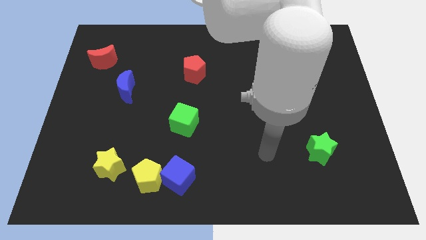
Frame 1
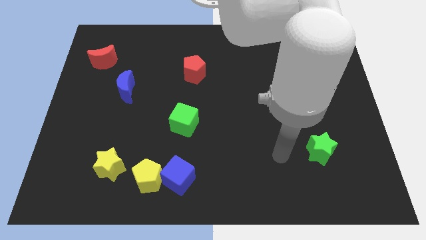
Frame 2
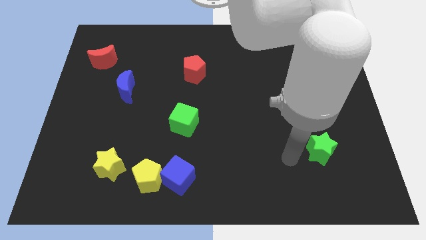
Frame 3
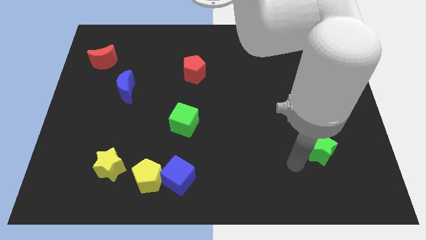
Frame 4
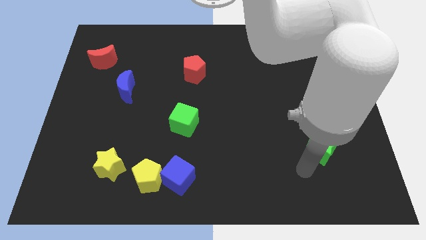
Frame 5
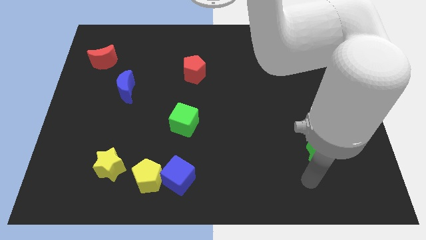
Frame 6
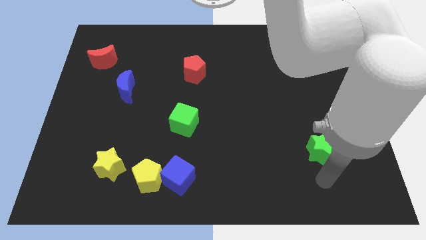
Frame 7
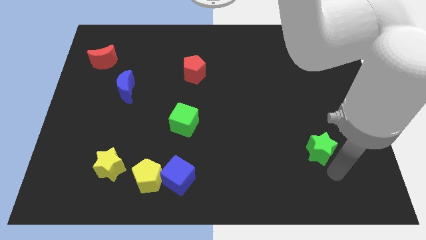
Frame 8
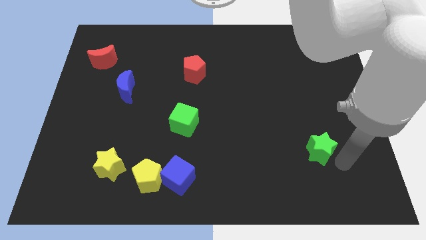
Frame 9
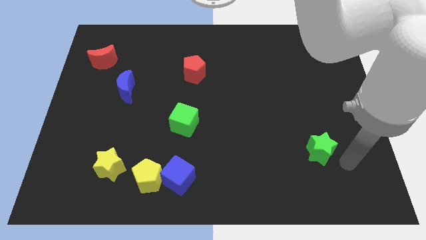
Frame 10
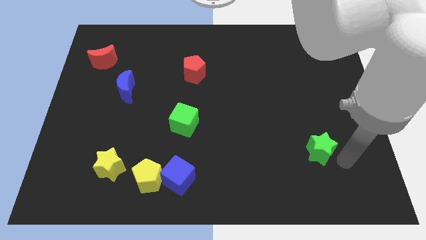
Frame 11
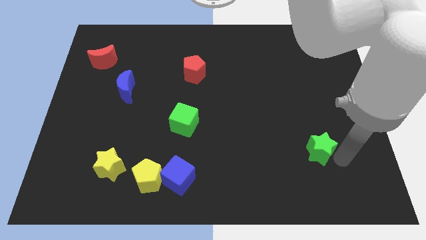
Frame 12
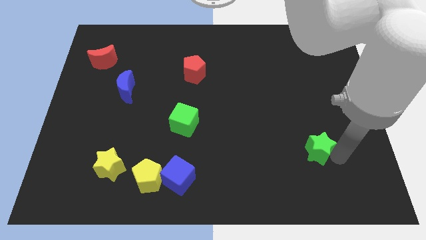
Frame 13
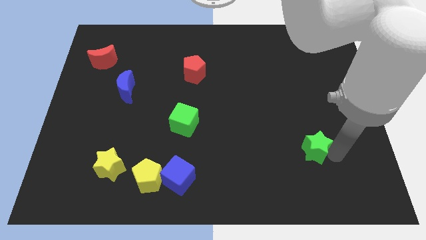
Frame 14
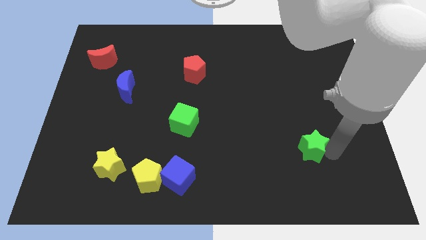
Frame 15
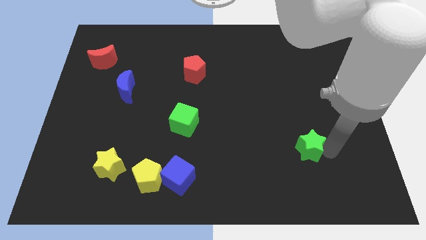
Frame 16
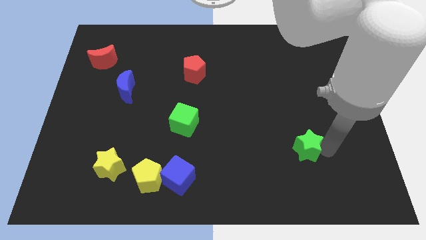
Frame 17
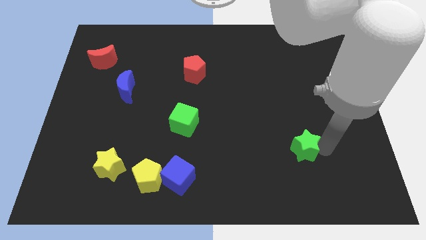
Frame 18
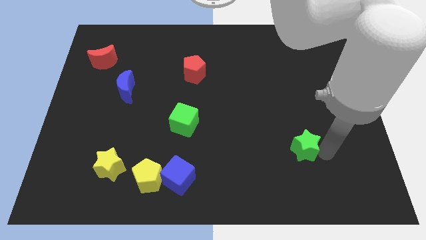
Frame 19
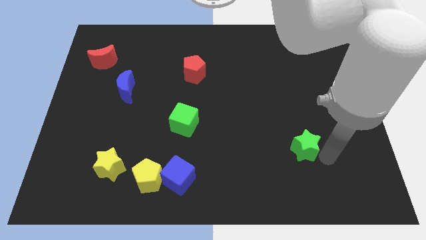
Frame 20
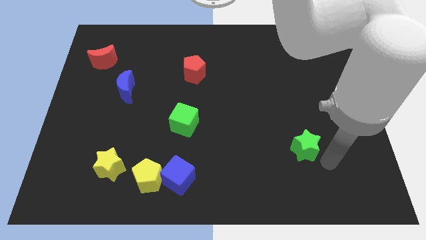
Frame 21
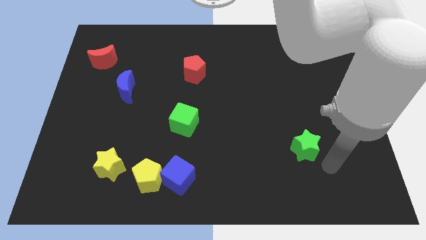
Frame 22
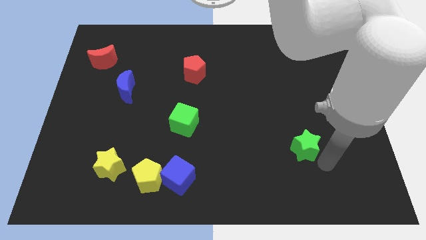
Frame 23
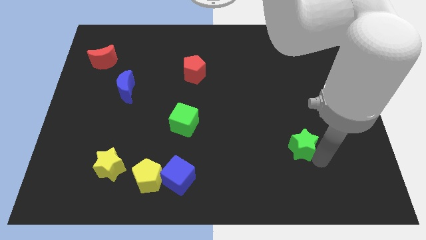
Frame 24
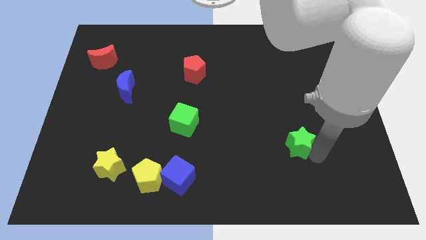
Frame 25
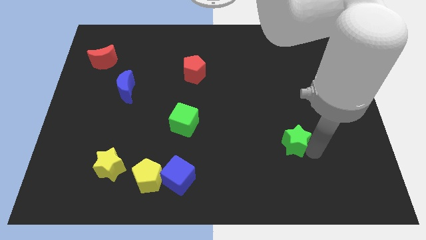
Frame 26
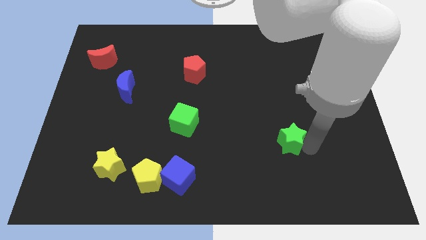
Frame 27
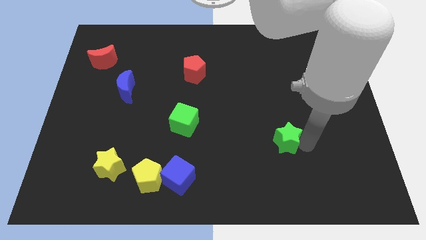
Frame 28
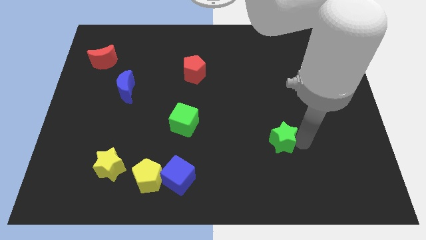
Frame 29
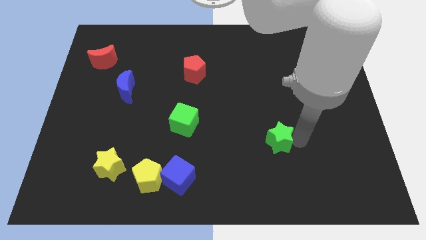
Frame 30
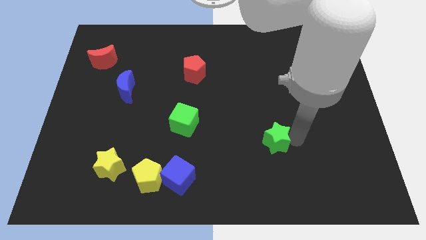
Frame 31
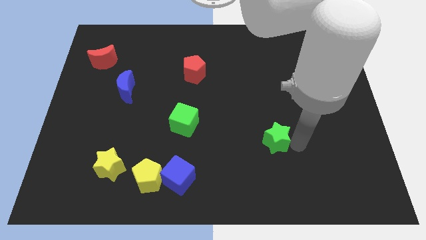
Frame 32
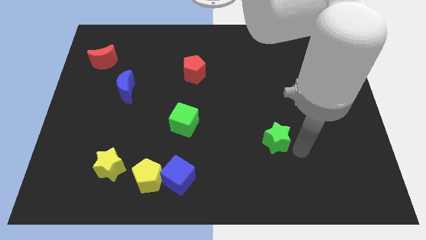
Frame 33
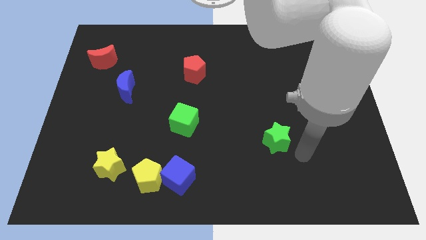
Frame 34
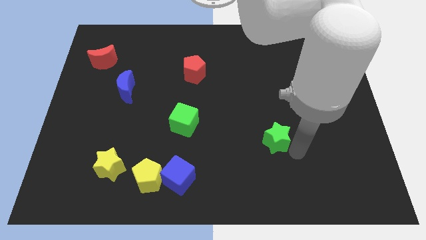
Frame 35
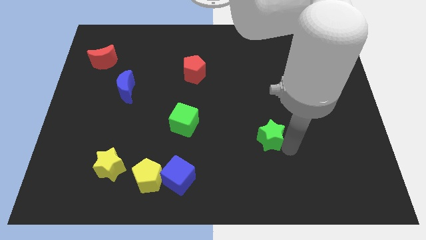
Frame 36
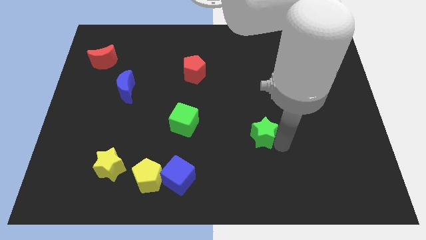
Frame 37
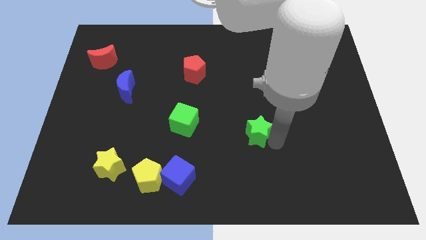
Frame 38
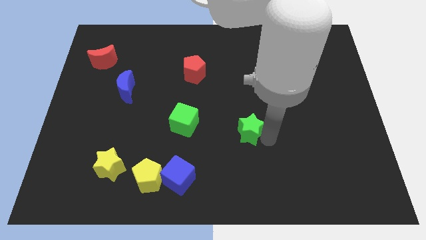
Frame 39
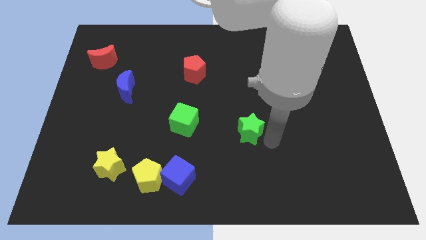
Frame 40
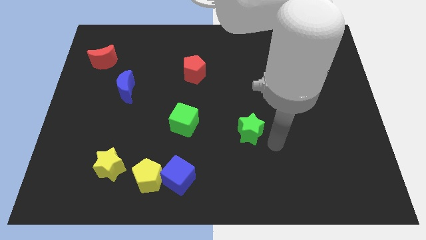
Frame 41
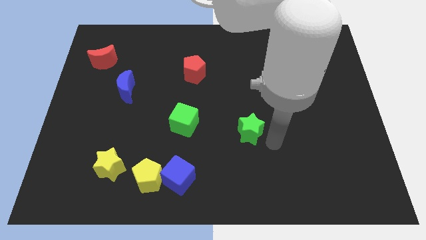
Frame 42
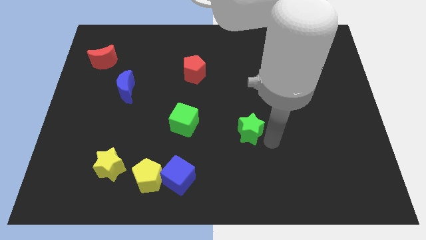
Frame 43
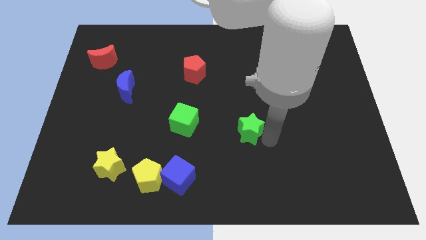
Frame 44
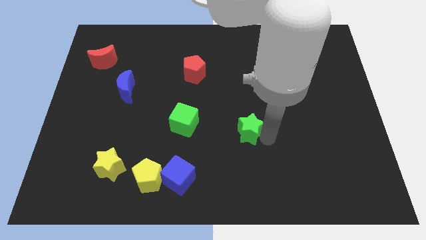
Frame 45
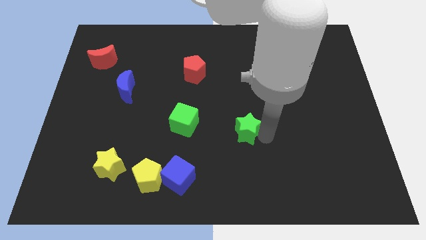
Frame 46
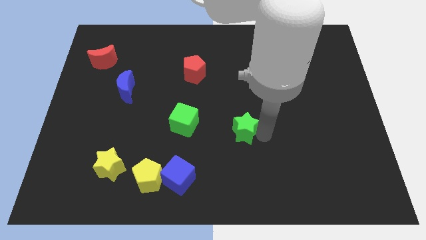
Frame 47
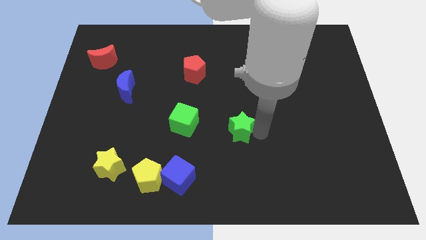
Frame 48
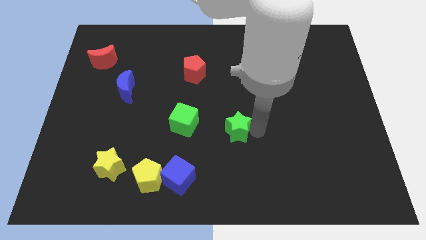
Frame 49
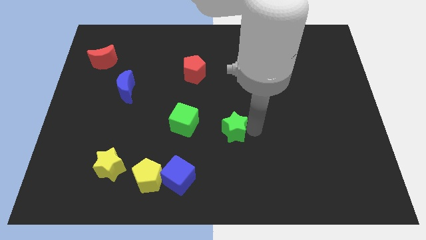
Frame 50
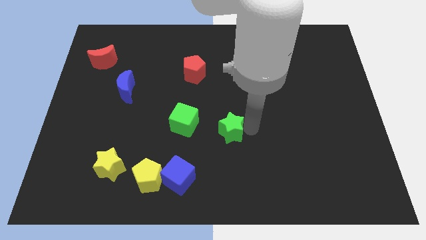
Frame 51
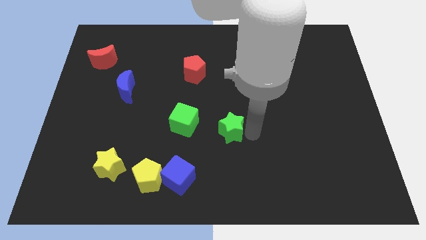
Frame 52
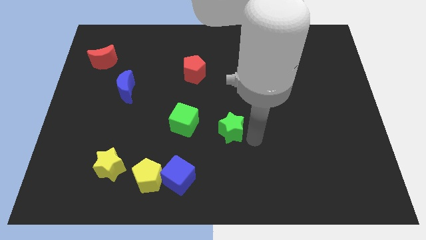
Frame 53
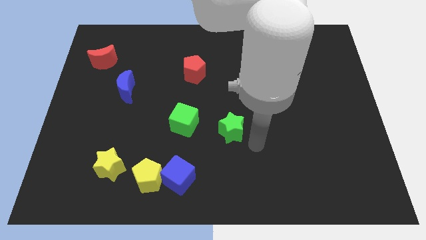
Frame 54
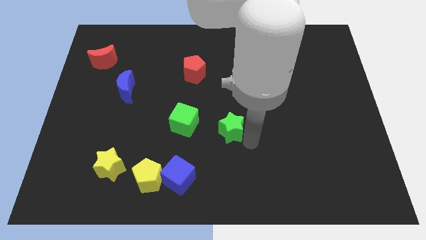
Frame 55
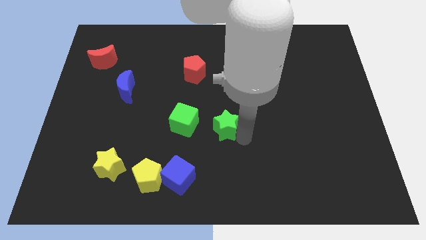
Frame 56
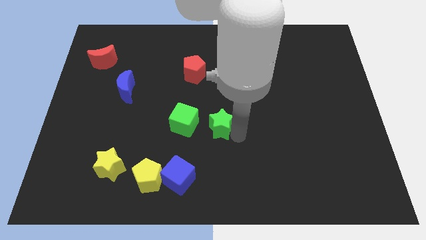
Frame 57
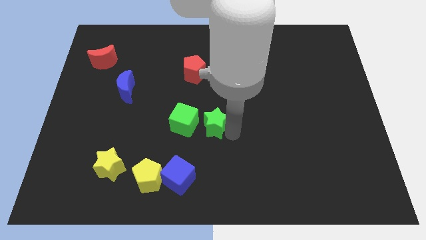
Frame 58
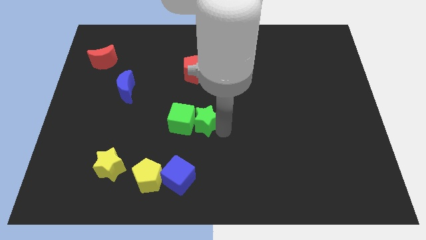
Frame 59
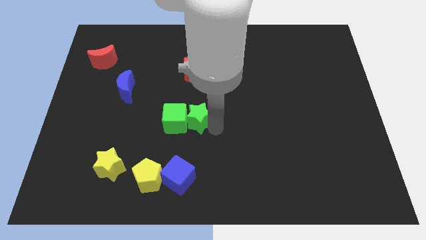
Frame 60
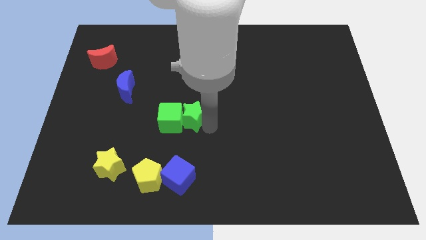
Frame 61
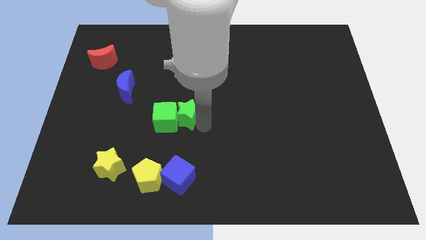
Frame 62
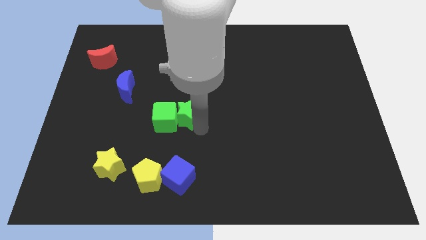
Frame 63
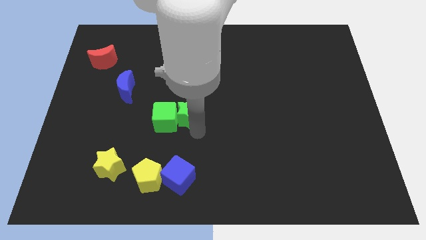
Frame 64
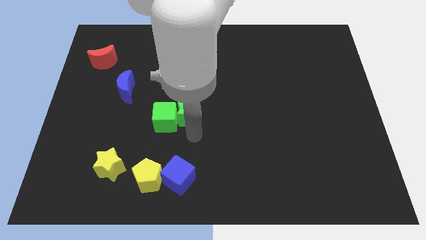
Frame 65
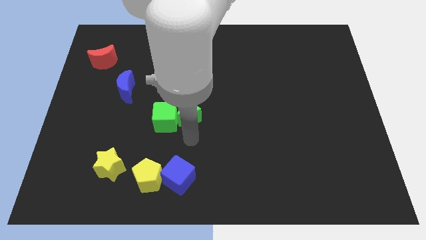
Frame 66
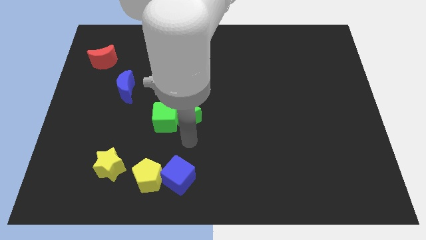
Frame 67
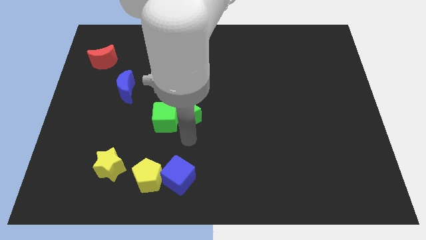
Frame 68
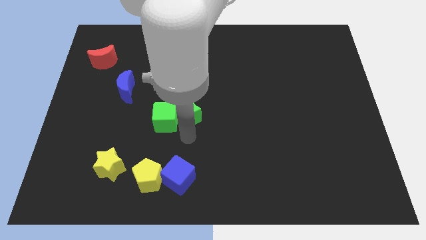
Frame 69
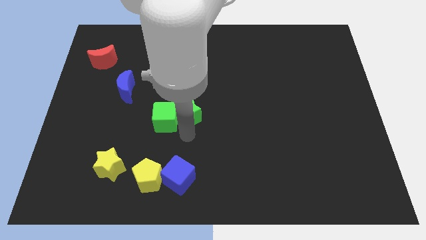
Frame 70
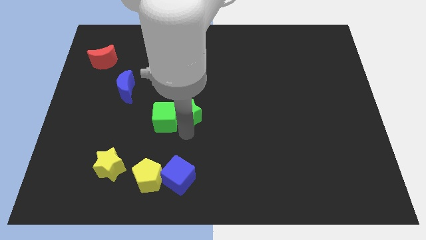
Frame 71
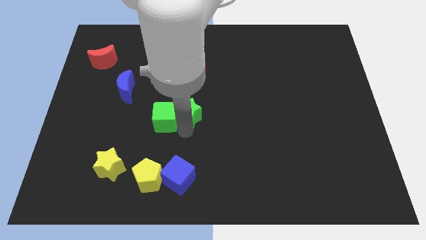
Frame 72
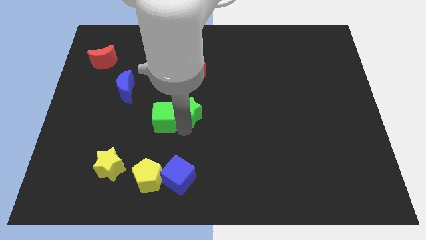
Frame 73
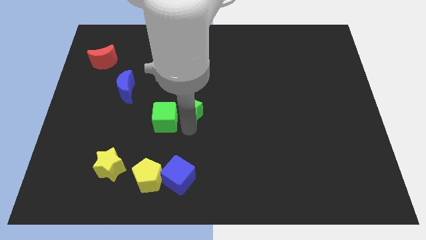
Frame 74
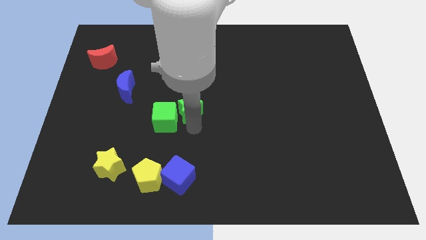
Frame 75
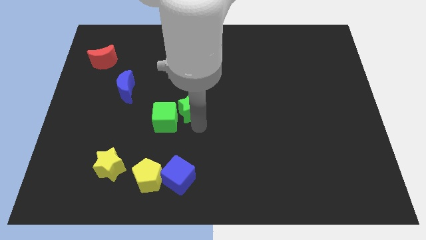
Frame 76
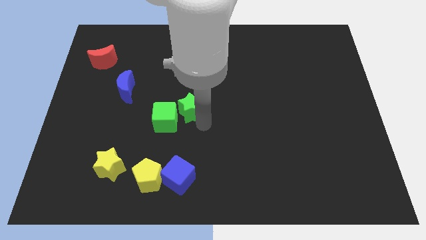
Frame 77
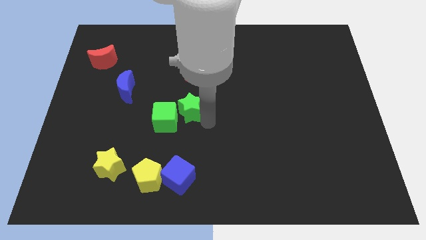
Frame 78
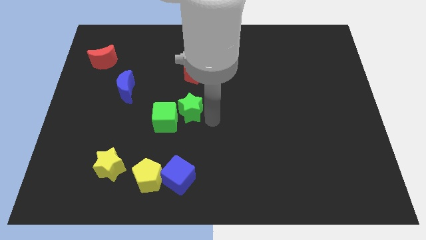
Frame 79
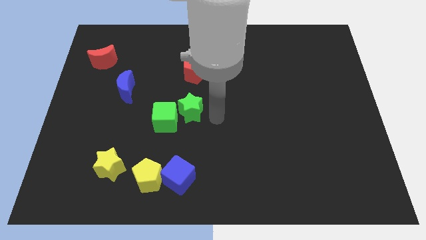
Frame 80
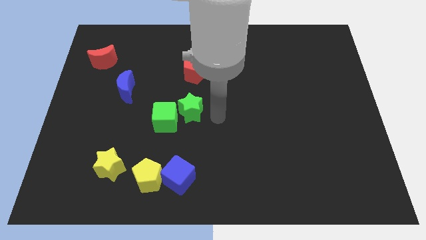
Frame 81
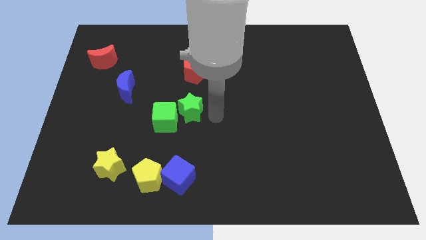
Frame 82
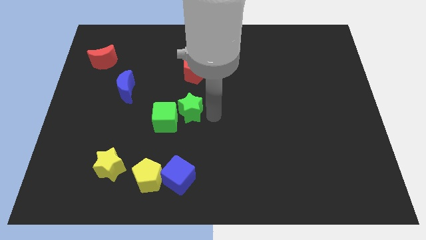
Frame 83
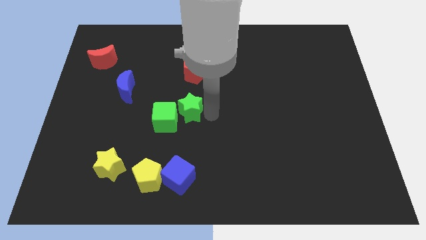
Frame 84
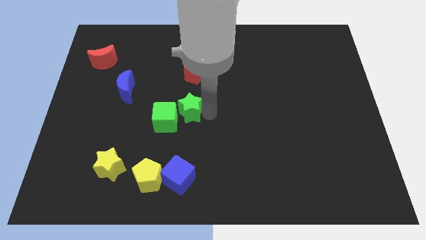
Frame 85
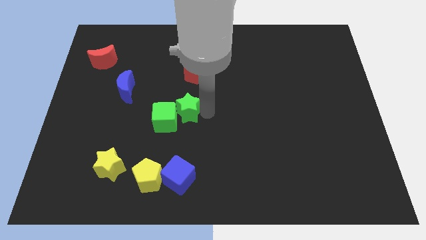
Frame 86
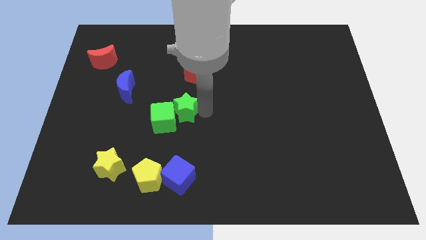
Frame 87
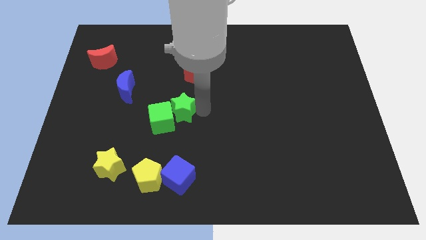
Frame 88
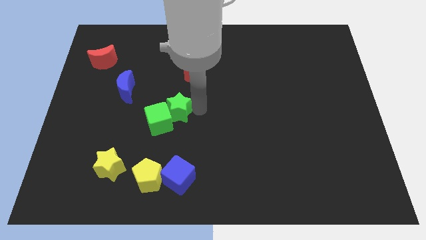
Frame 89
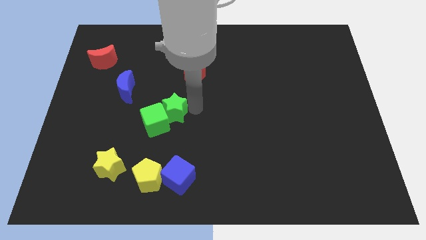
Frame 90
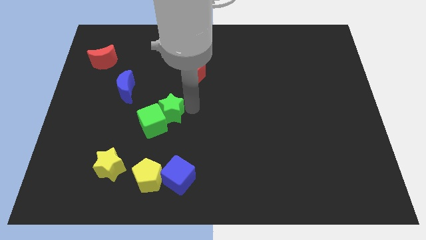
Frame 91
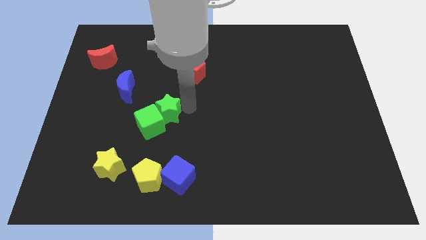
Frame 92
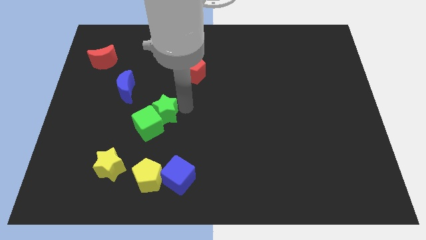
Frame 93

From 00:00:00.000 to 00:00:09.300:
put the green star diagonally down and to the right of the blue moon
